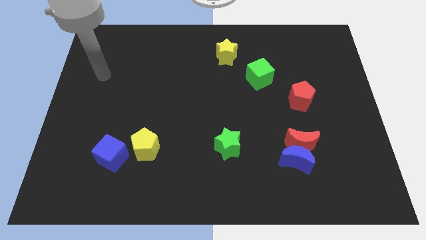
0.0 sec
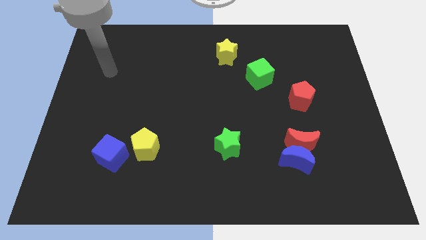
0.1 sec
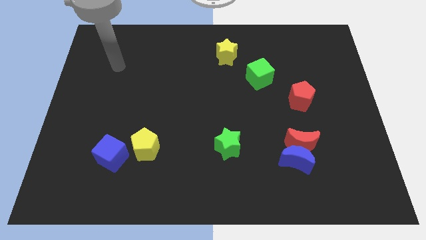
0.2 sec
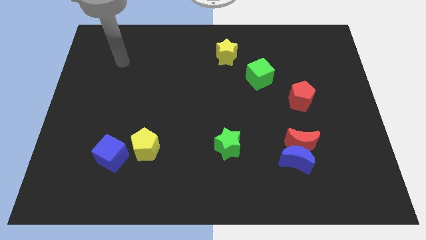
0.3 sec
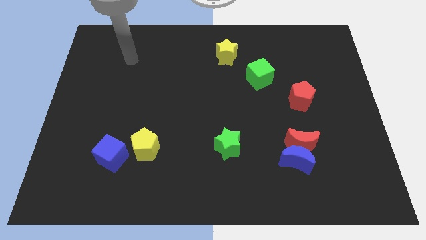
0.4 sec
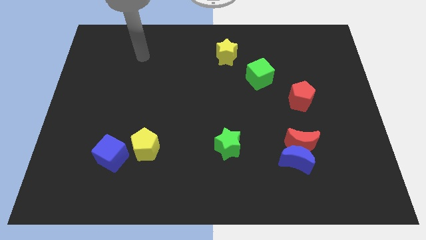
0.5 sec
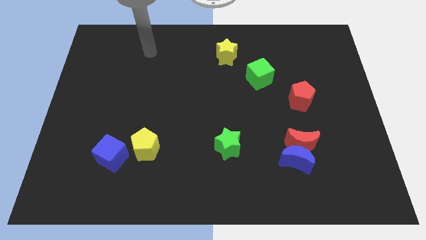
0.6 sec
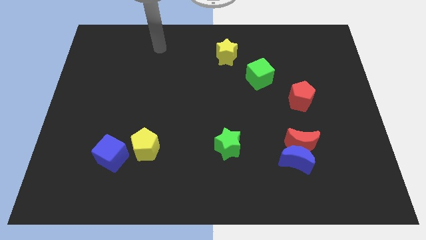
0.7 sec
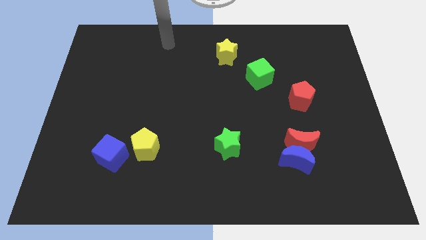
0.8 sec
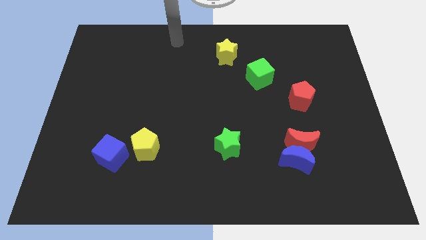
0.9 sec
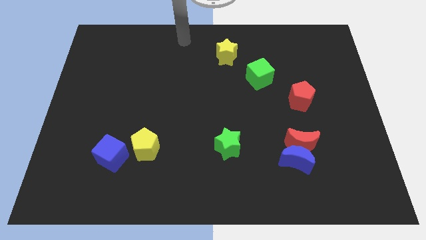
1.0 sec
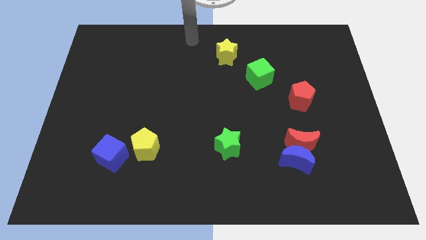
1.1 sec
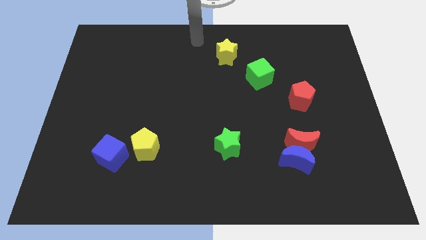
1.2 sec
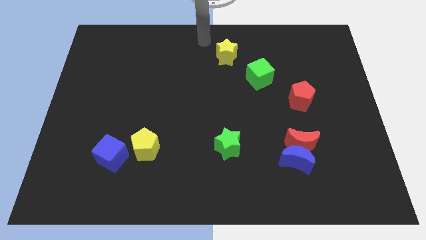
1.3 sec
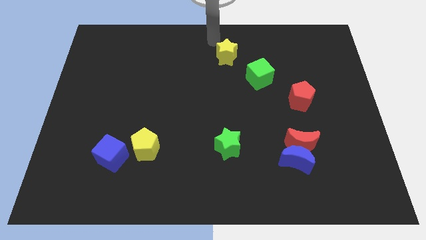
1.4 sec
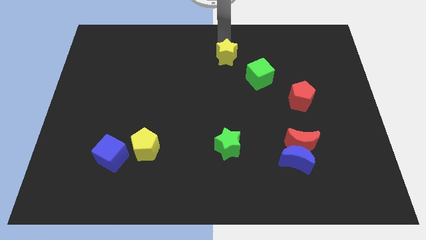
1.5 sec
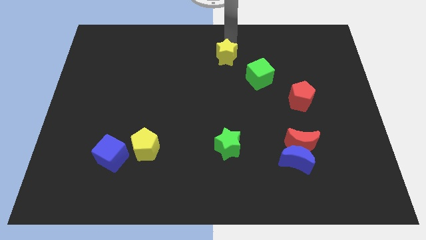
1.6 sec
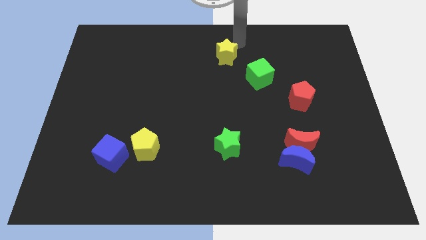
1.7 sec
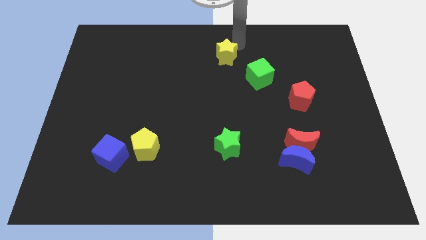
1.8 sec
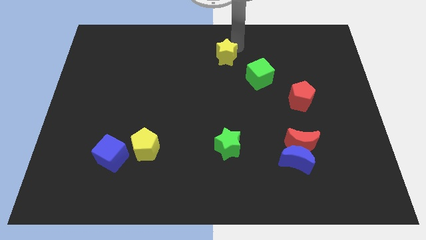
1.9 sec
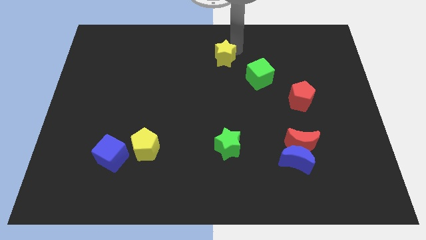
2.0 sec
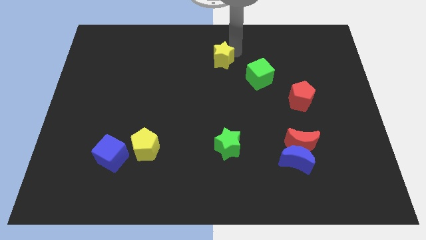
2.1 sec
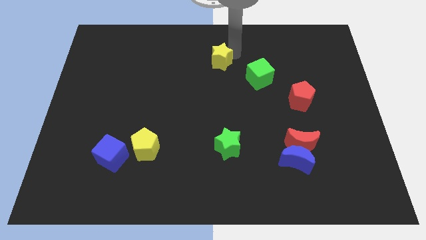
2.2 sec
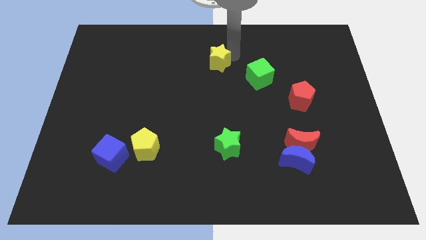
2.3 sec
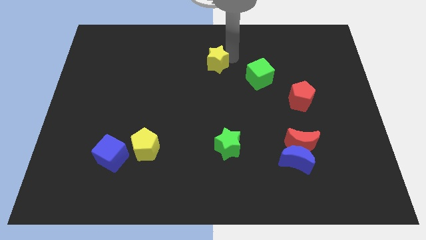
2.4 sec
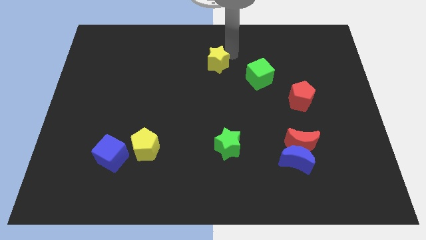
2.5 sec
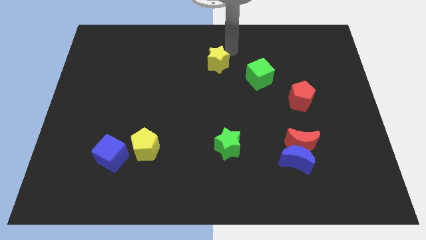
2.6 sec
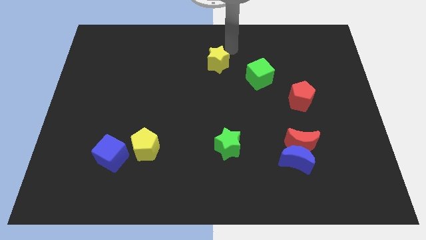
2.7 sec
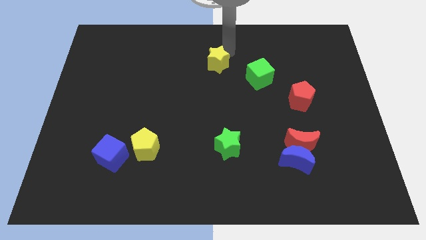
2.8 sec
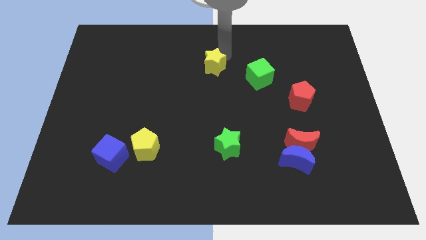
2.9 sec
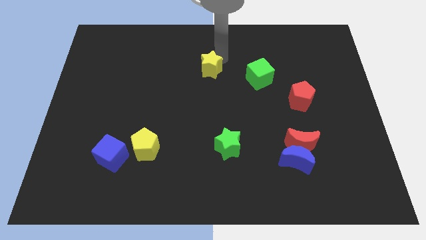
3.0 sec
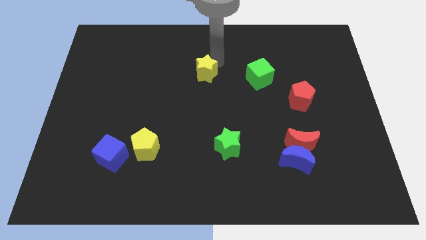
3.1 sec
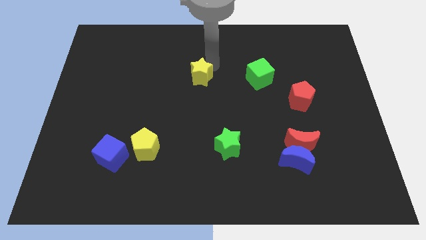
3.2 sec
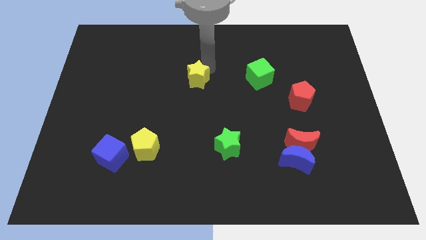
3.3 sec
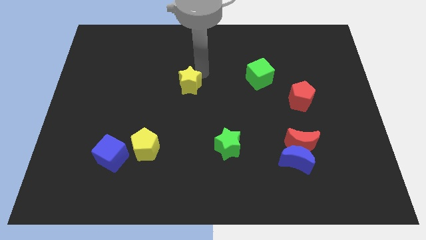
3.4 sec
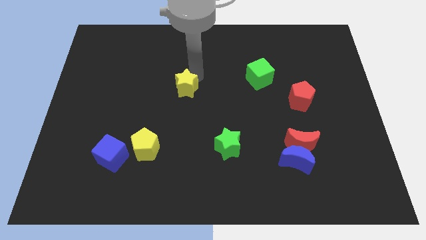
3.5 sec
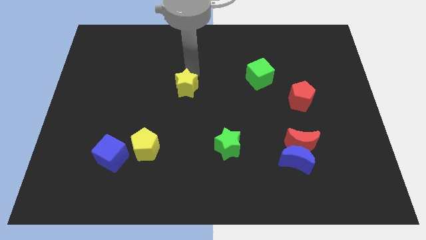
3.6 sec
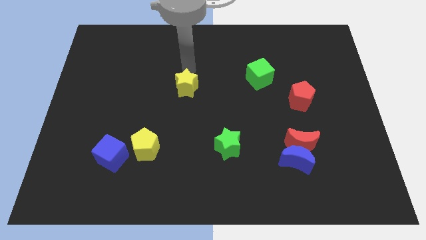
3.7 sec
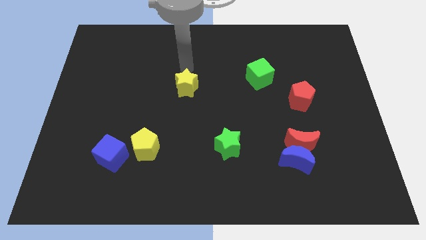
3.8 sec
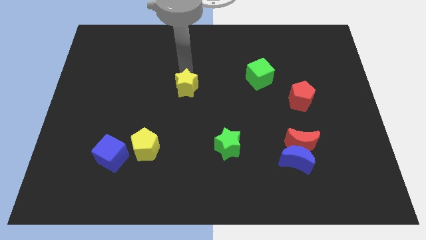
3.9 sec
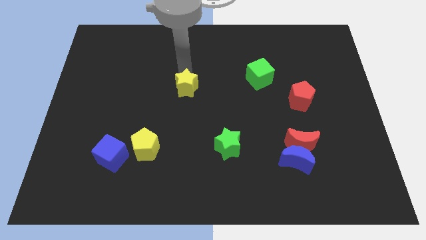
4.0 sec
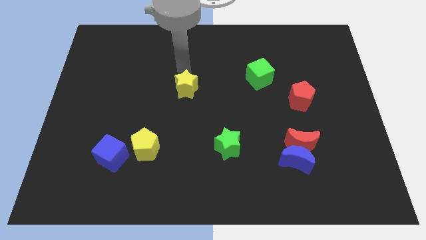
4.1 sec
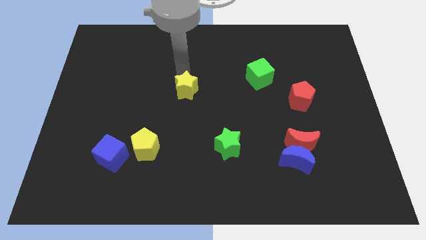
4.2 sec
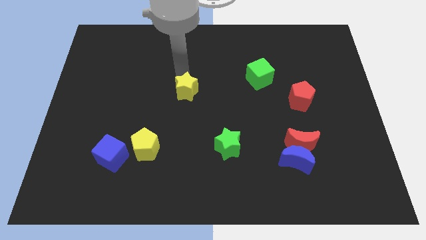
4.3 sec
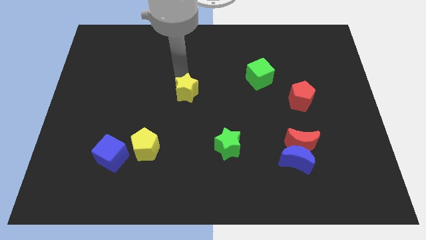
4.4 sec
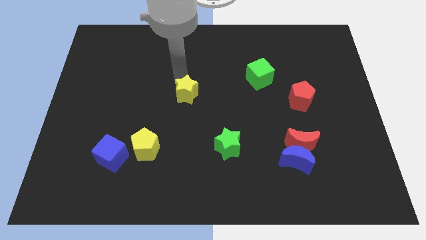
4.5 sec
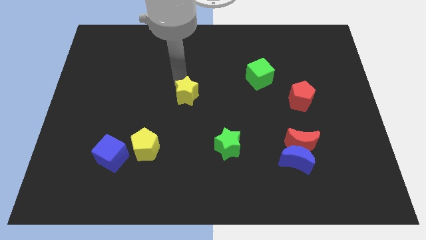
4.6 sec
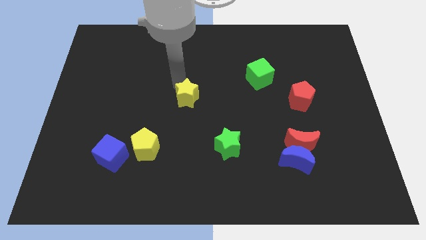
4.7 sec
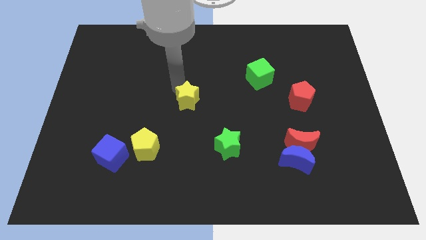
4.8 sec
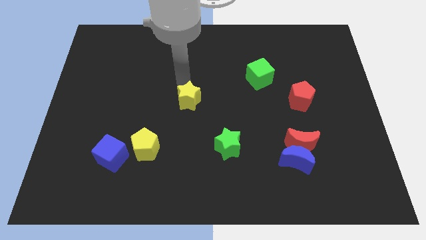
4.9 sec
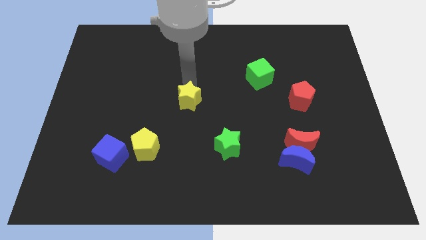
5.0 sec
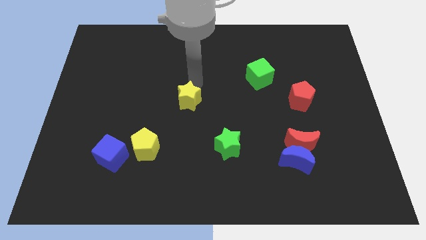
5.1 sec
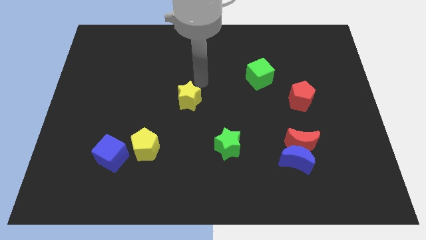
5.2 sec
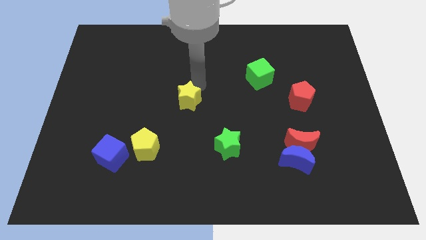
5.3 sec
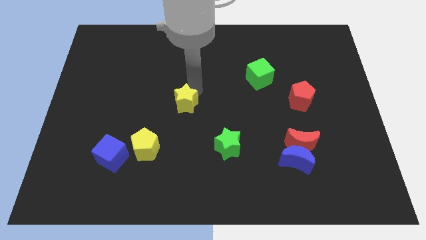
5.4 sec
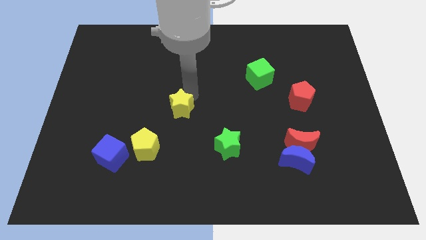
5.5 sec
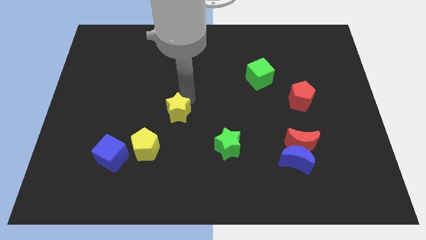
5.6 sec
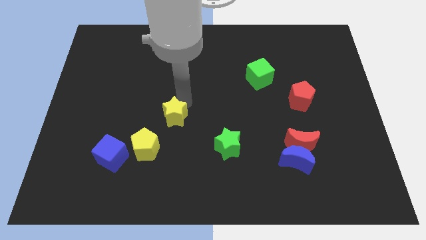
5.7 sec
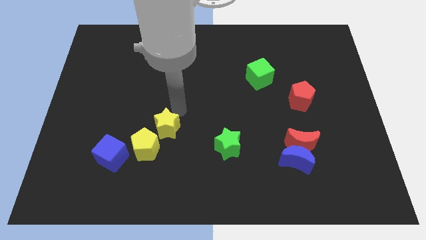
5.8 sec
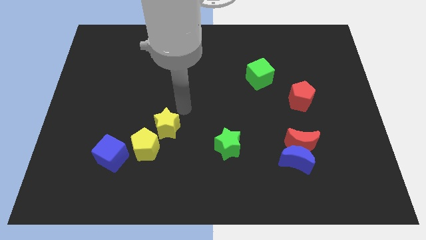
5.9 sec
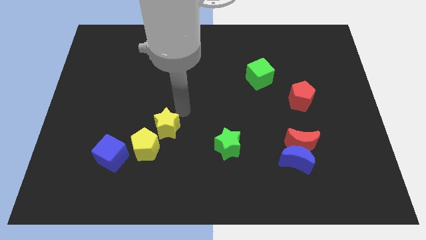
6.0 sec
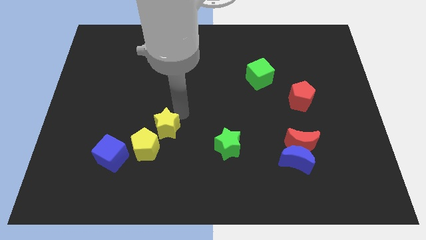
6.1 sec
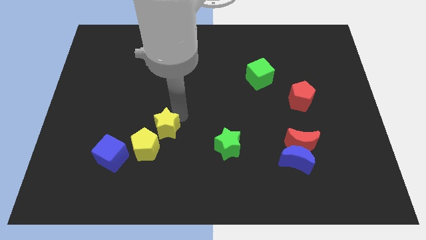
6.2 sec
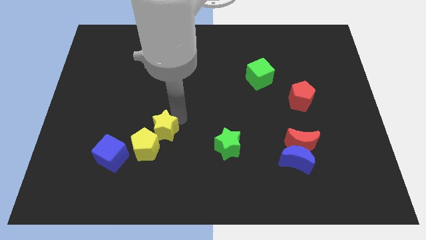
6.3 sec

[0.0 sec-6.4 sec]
move the yellow star close to the yellow pentagon

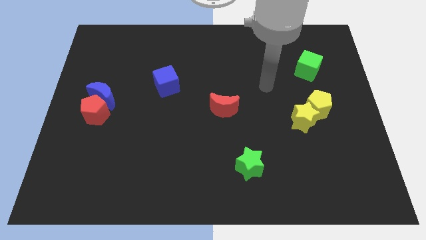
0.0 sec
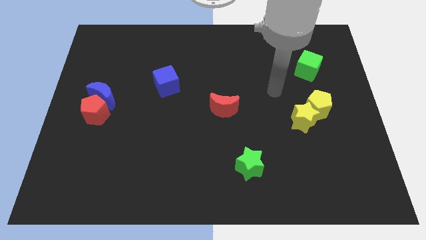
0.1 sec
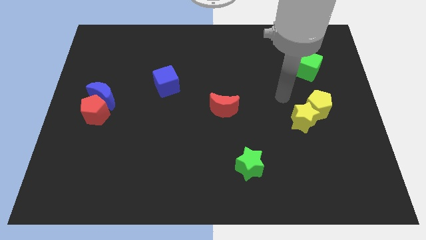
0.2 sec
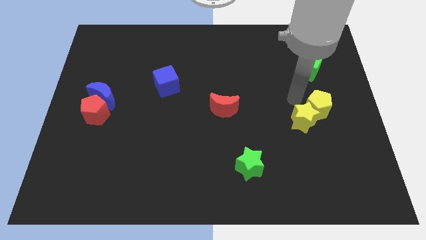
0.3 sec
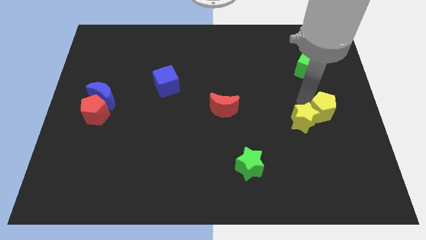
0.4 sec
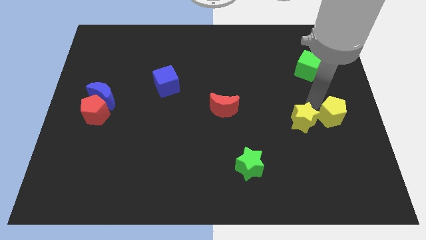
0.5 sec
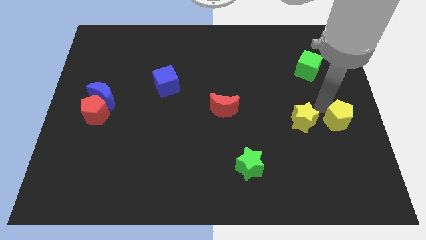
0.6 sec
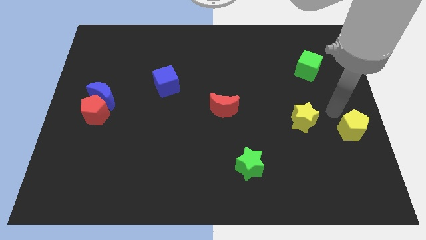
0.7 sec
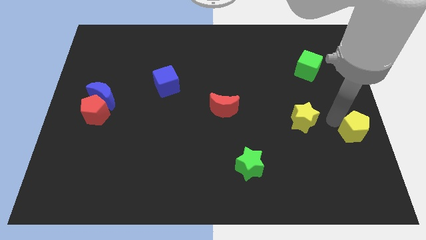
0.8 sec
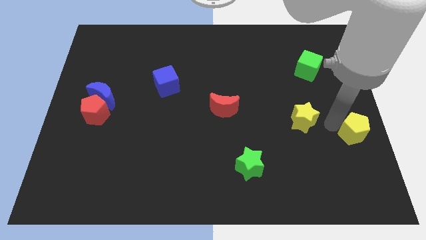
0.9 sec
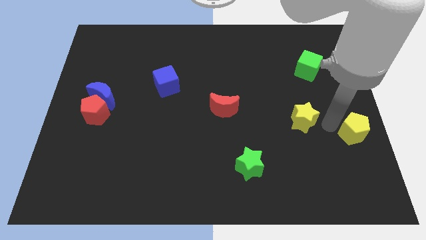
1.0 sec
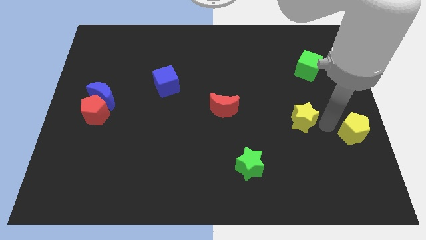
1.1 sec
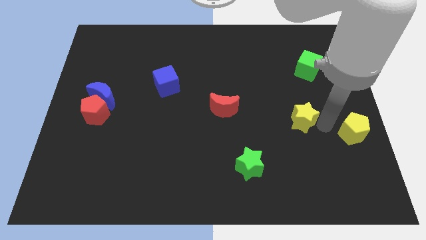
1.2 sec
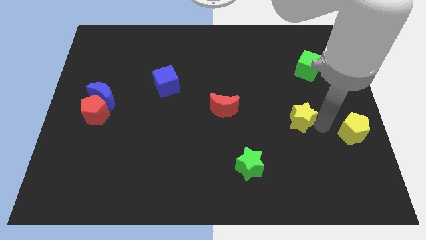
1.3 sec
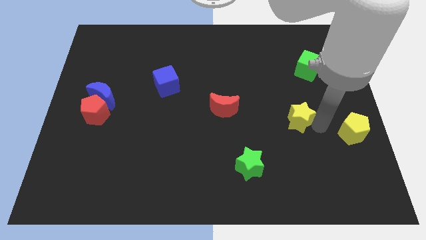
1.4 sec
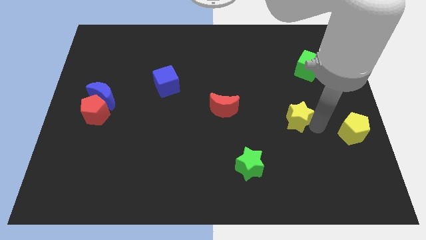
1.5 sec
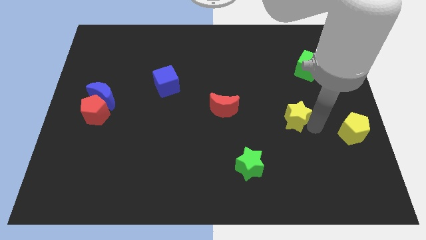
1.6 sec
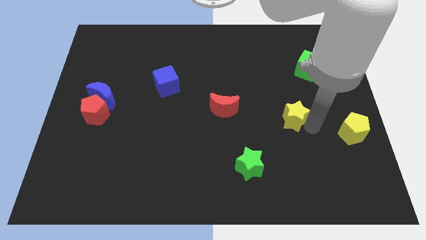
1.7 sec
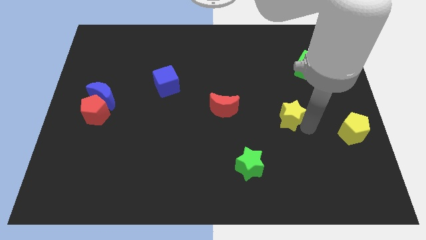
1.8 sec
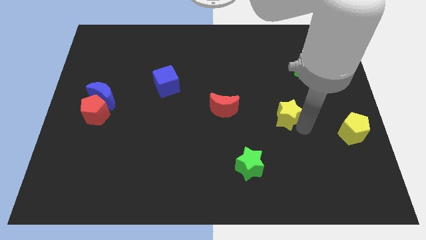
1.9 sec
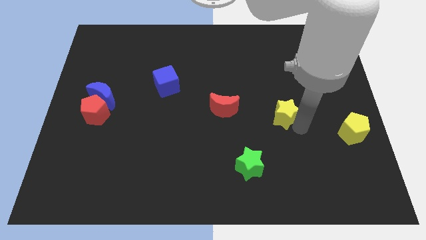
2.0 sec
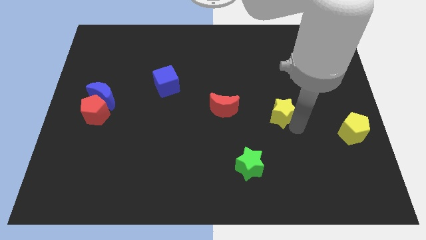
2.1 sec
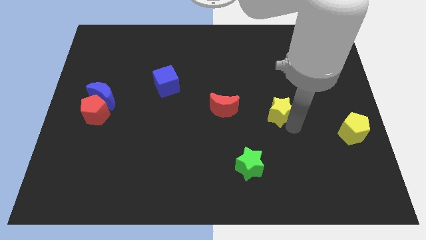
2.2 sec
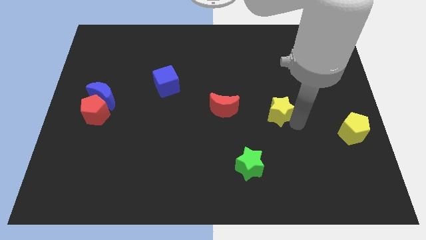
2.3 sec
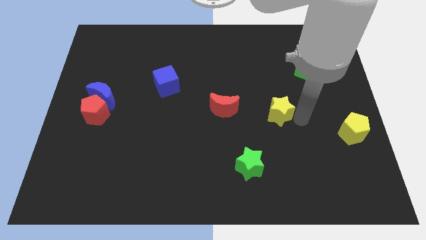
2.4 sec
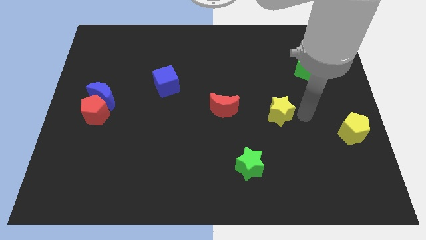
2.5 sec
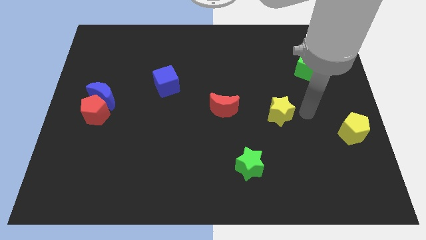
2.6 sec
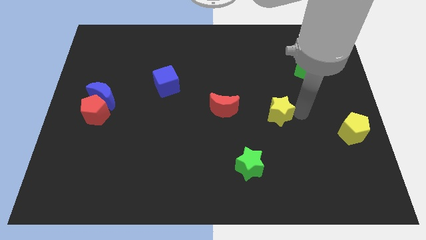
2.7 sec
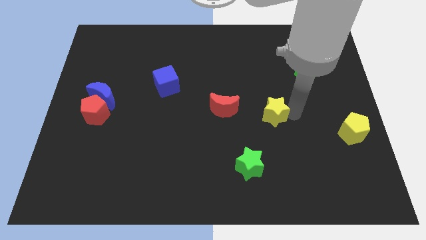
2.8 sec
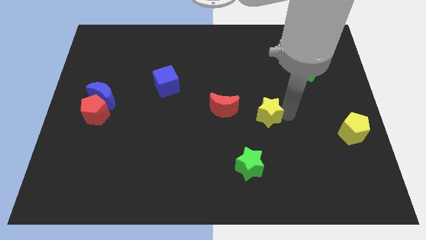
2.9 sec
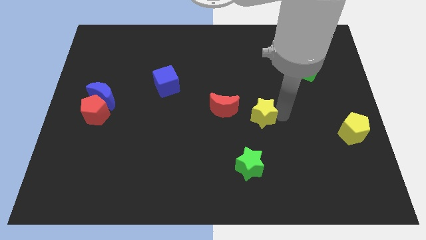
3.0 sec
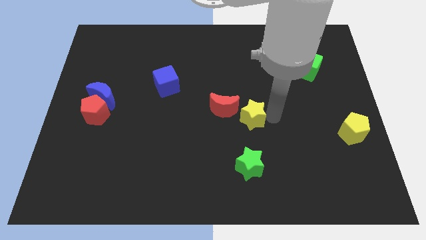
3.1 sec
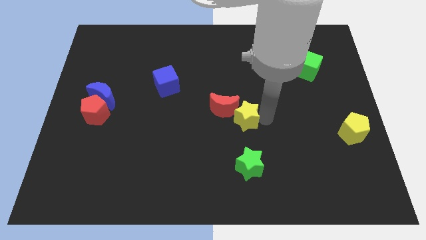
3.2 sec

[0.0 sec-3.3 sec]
slide the yellow star towards the red moon
